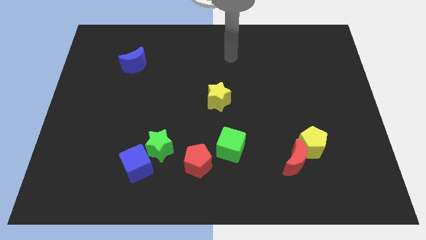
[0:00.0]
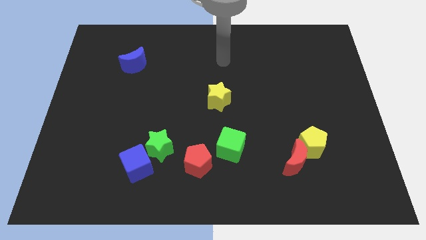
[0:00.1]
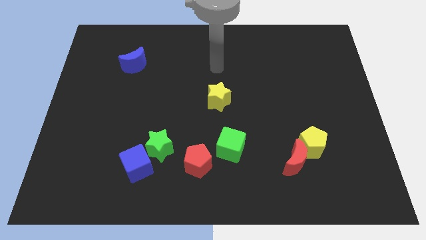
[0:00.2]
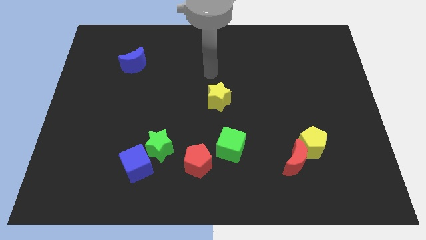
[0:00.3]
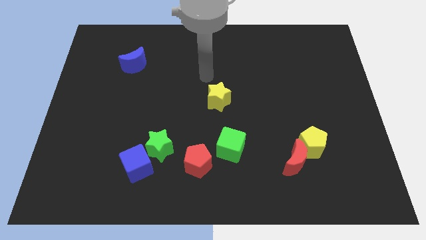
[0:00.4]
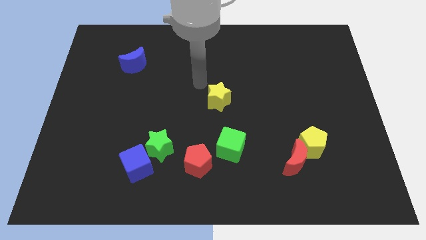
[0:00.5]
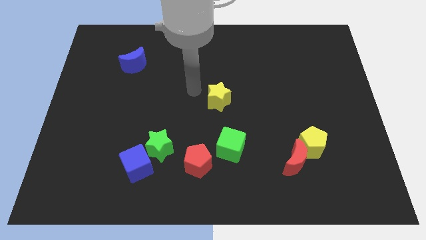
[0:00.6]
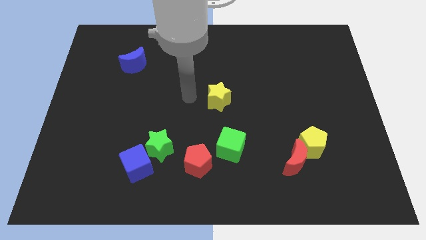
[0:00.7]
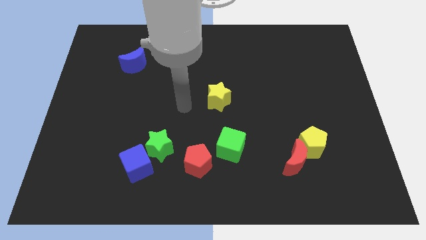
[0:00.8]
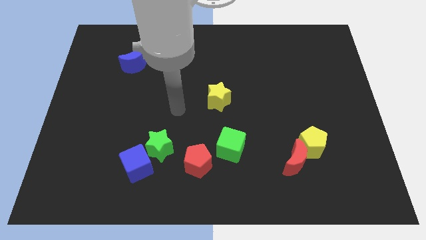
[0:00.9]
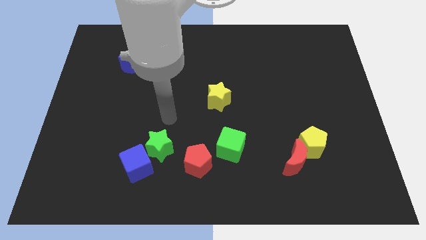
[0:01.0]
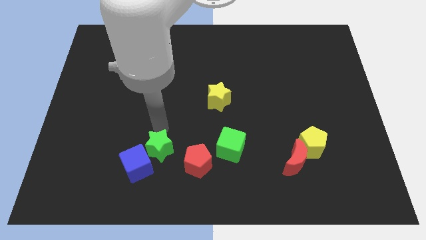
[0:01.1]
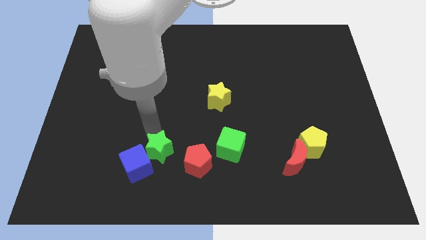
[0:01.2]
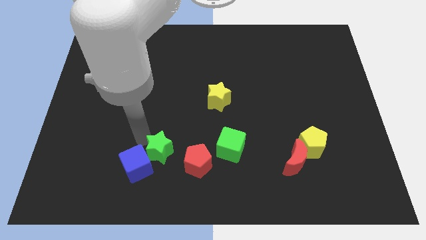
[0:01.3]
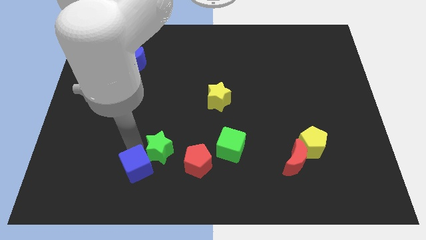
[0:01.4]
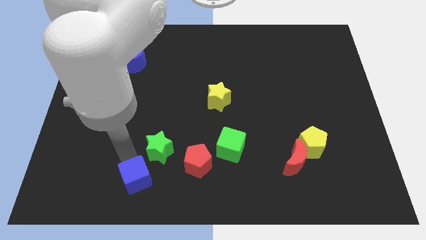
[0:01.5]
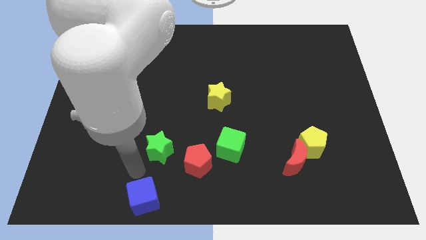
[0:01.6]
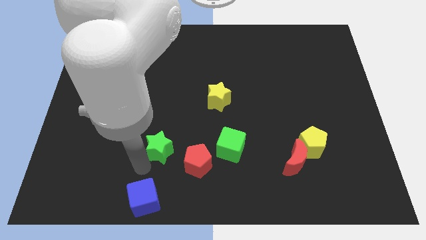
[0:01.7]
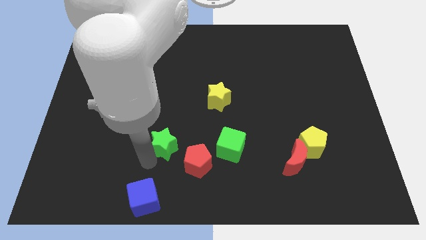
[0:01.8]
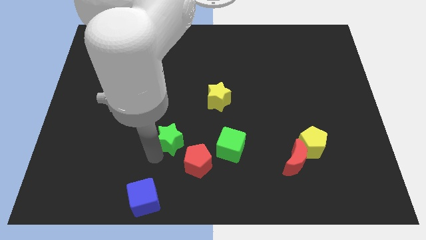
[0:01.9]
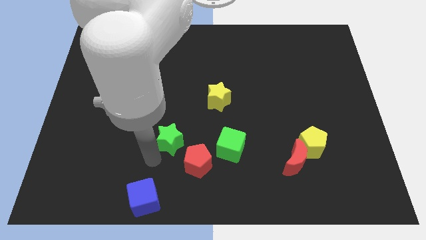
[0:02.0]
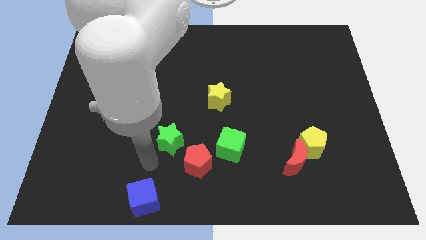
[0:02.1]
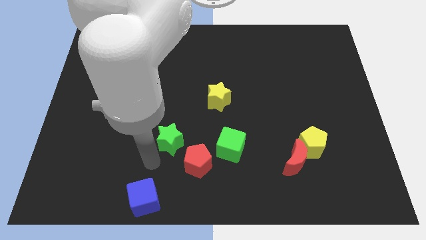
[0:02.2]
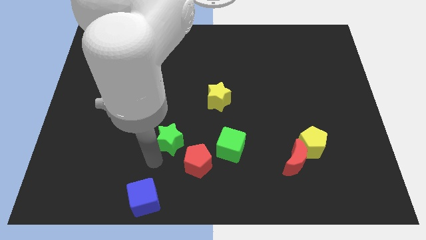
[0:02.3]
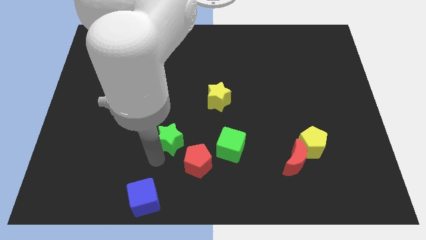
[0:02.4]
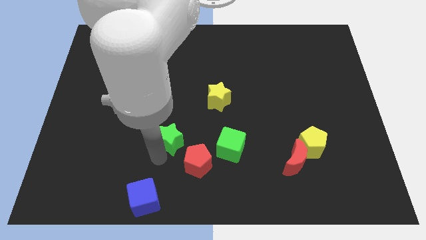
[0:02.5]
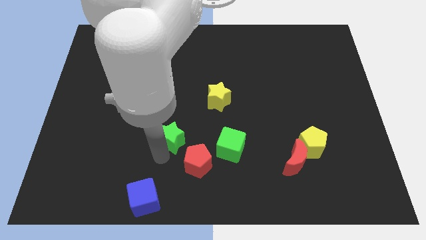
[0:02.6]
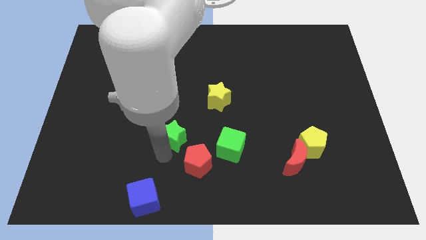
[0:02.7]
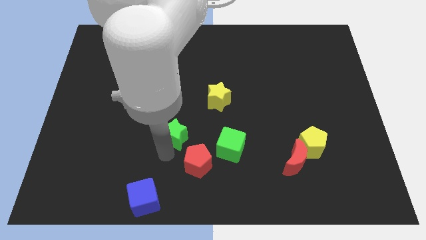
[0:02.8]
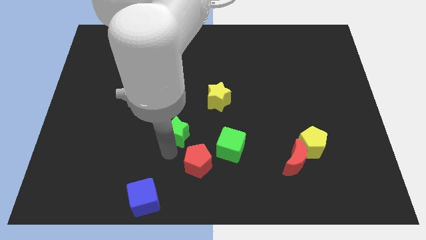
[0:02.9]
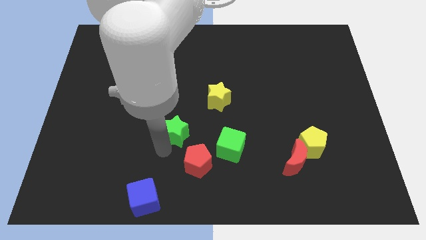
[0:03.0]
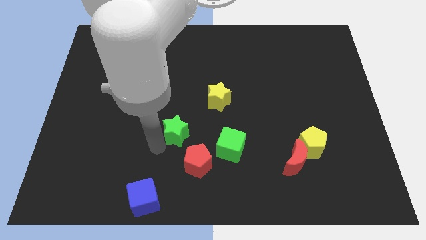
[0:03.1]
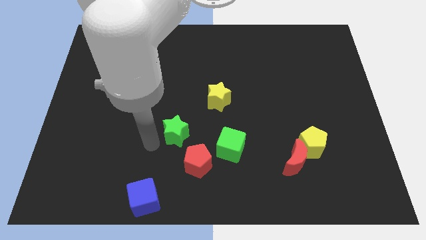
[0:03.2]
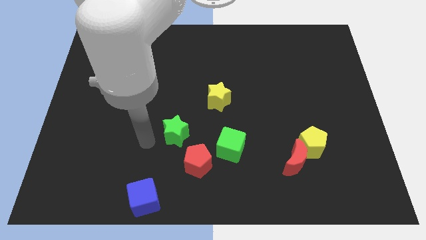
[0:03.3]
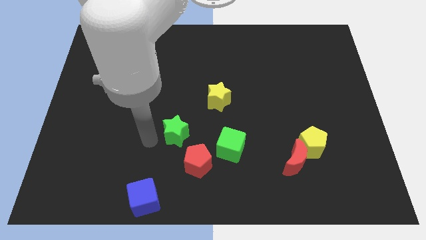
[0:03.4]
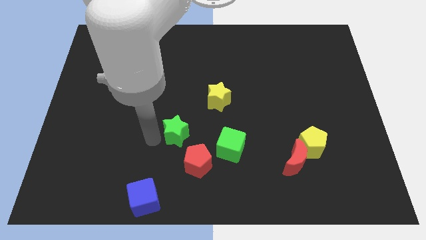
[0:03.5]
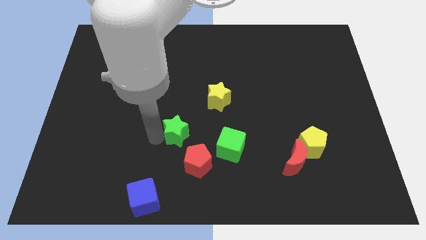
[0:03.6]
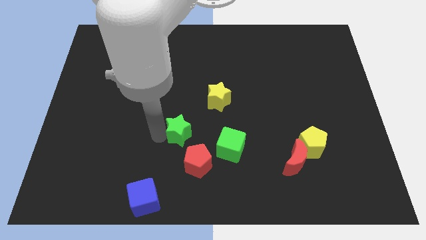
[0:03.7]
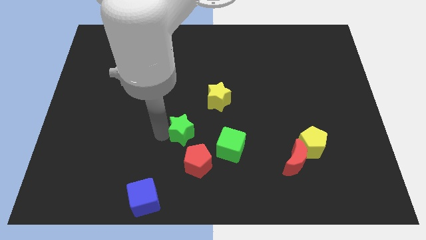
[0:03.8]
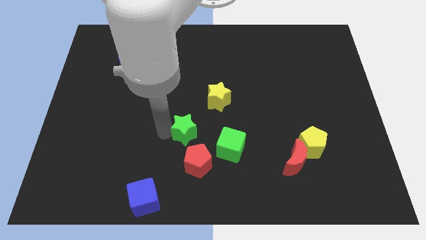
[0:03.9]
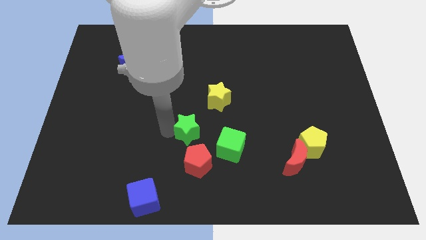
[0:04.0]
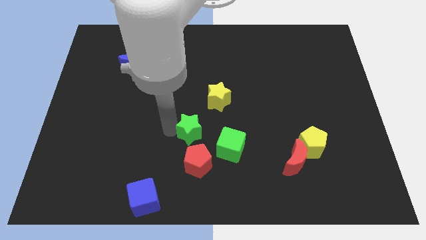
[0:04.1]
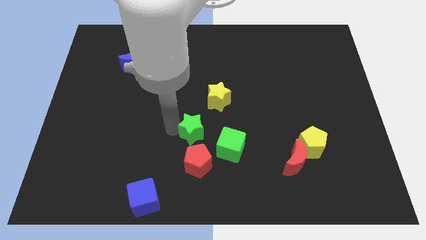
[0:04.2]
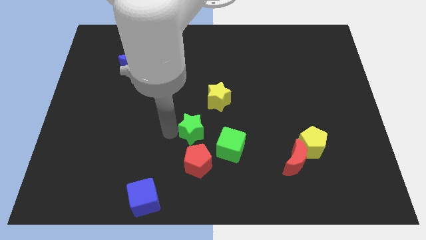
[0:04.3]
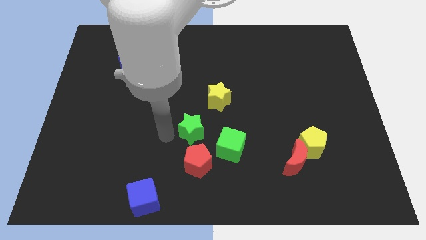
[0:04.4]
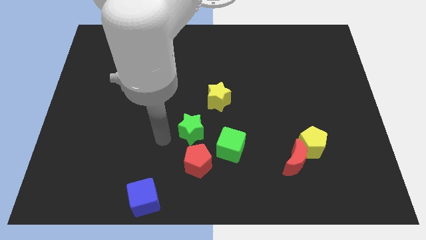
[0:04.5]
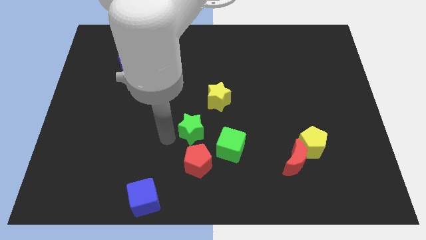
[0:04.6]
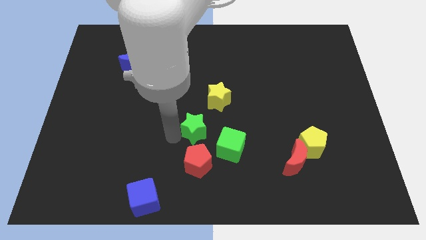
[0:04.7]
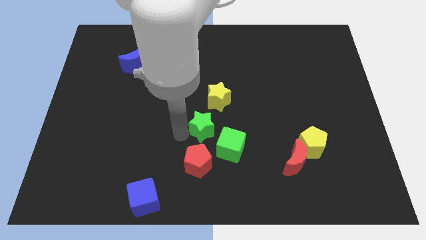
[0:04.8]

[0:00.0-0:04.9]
move the green star right a little bit

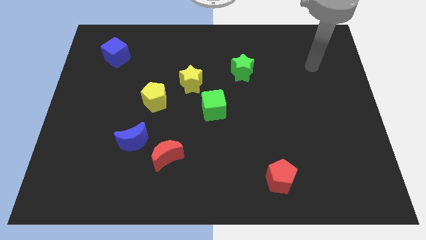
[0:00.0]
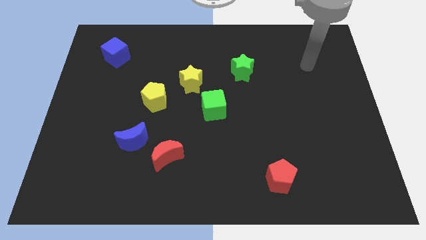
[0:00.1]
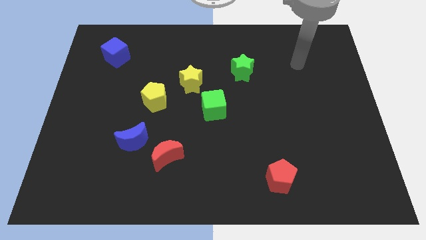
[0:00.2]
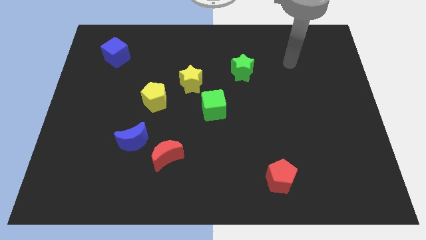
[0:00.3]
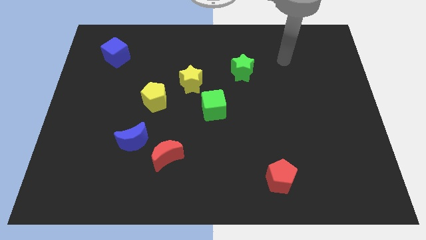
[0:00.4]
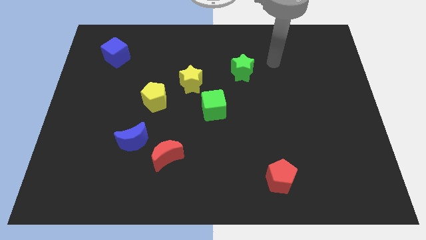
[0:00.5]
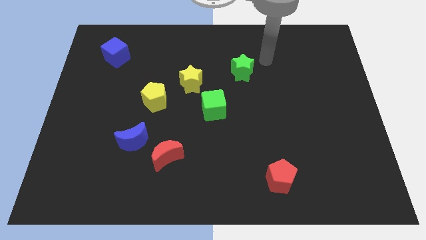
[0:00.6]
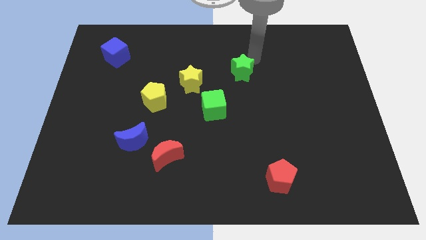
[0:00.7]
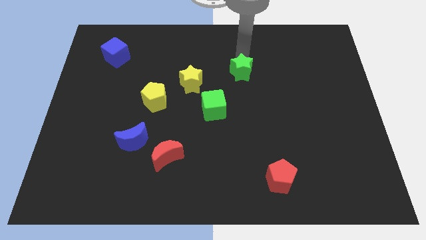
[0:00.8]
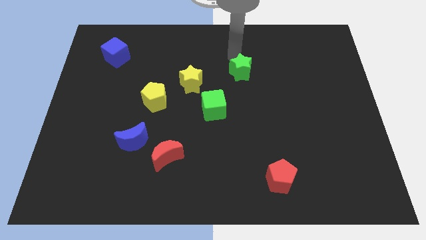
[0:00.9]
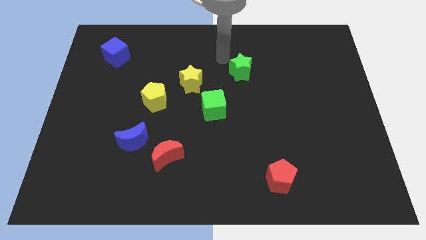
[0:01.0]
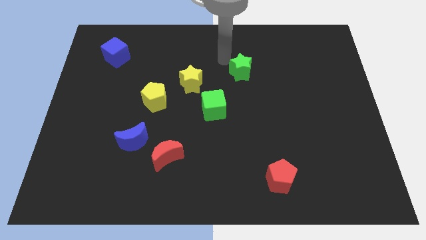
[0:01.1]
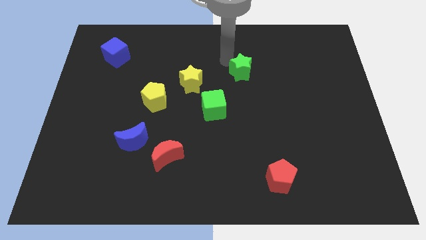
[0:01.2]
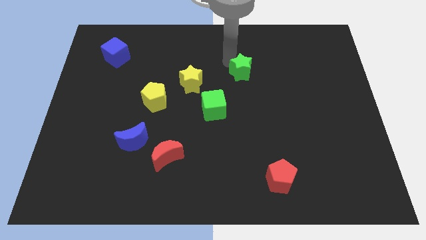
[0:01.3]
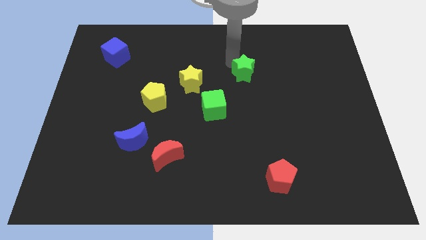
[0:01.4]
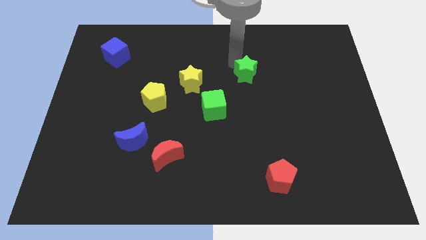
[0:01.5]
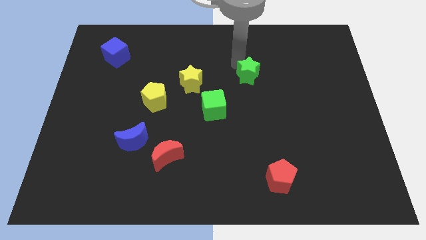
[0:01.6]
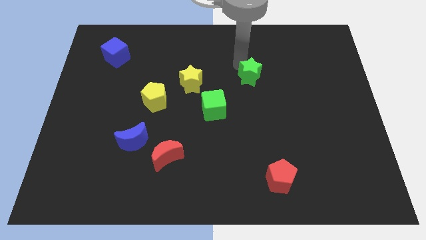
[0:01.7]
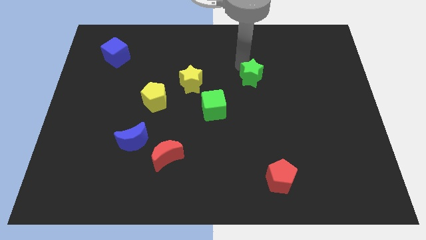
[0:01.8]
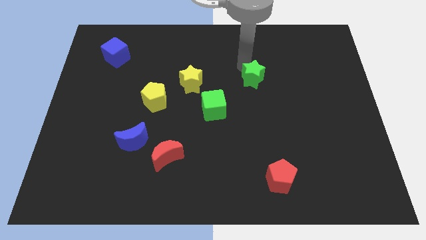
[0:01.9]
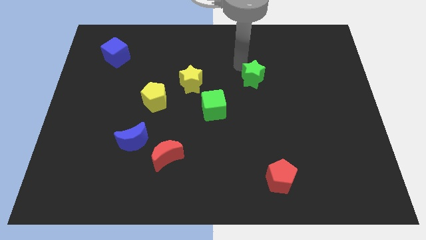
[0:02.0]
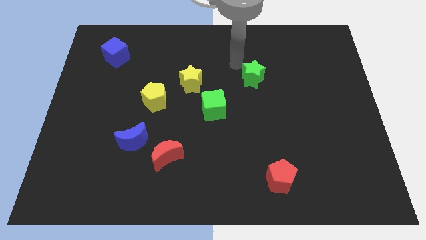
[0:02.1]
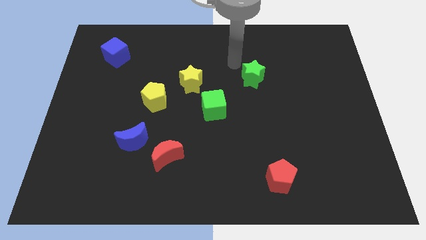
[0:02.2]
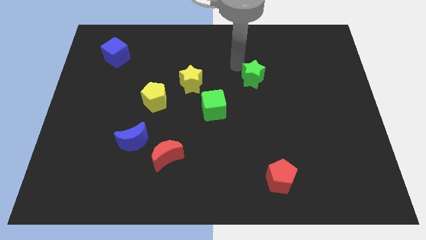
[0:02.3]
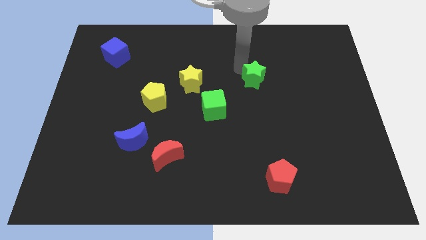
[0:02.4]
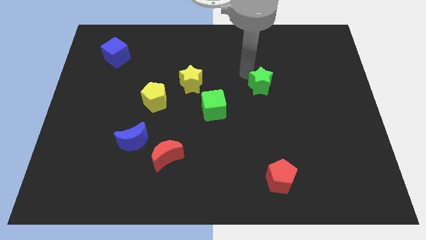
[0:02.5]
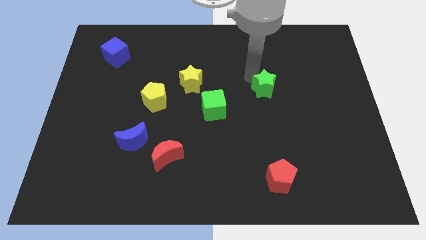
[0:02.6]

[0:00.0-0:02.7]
slightly move the green star downwards and to the right

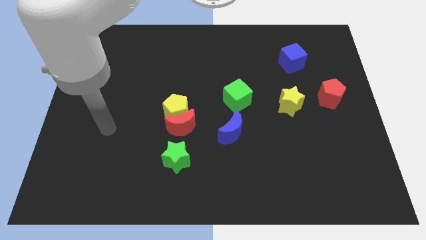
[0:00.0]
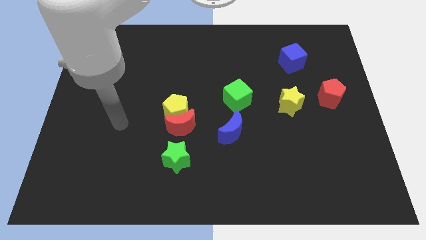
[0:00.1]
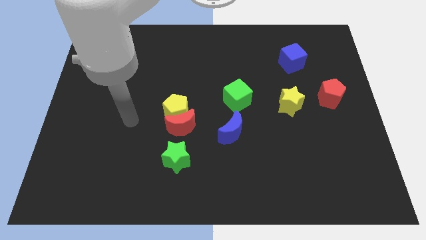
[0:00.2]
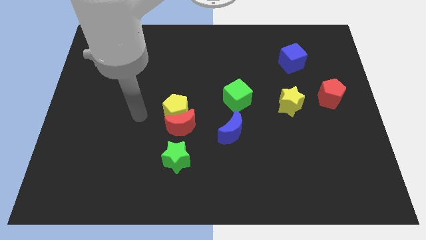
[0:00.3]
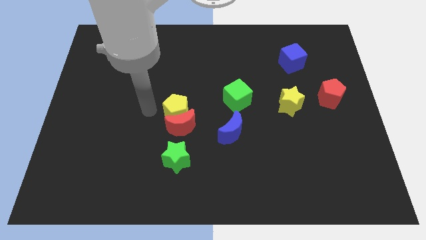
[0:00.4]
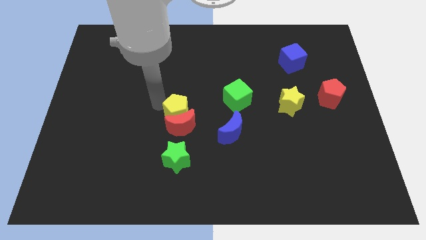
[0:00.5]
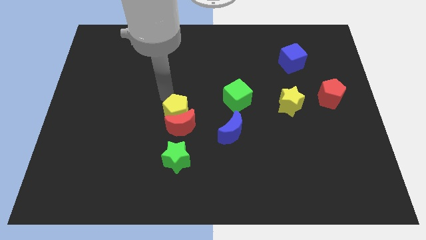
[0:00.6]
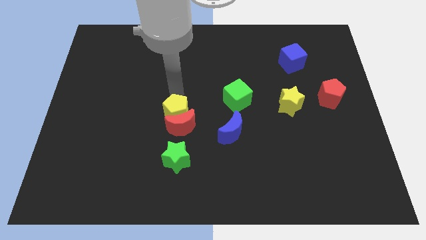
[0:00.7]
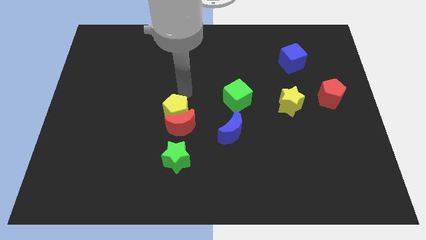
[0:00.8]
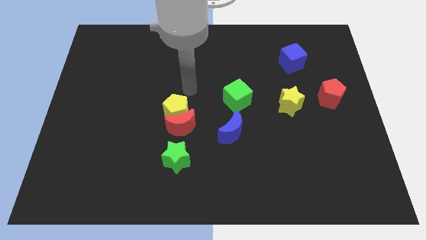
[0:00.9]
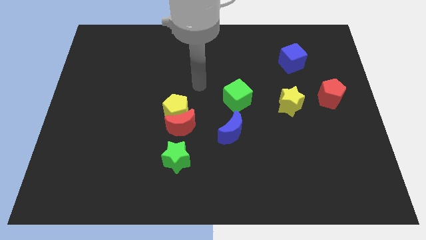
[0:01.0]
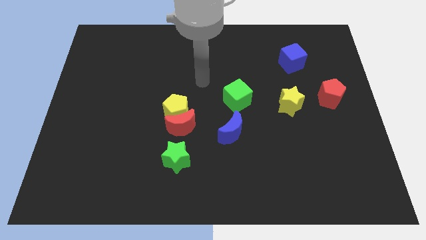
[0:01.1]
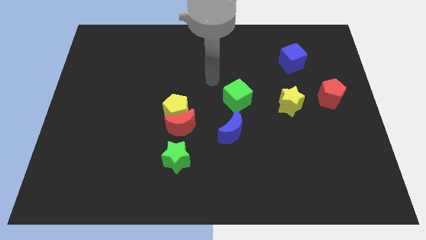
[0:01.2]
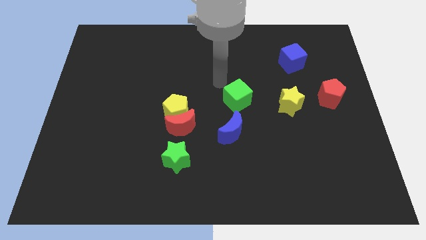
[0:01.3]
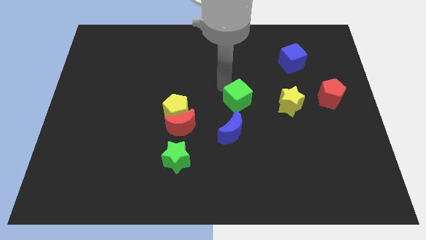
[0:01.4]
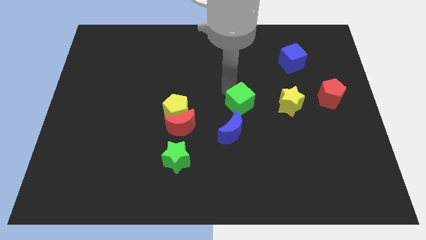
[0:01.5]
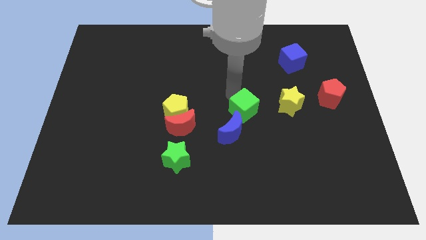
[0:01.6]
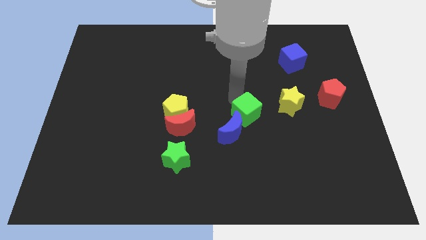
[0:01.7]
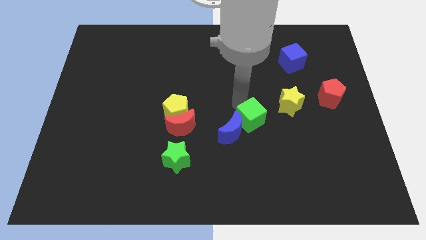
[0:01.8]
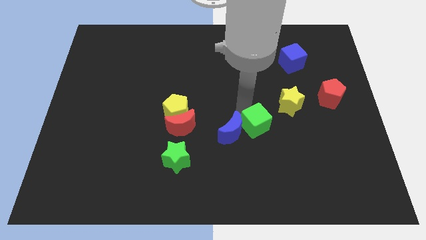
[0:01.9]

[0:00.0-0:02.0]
slide the green cube slightly downwards and then right
